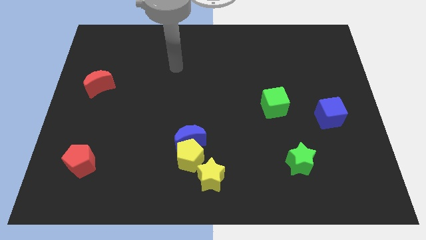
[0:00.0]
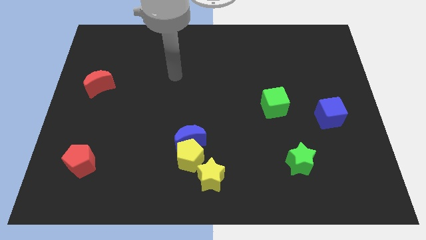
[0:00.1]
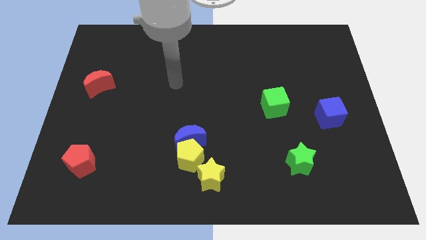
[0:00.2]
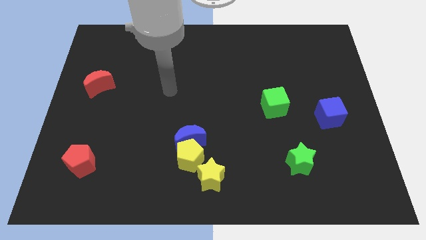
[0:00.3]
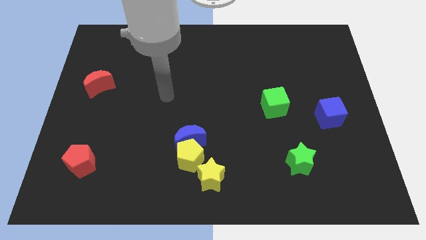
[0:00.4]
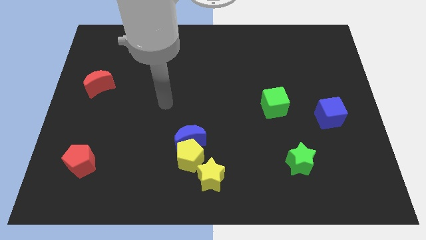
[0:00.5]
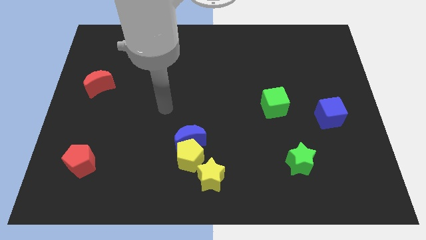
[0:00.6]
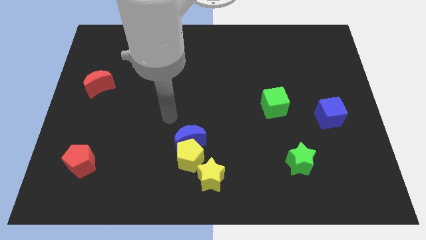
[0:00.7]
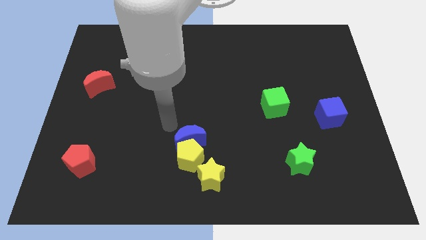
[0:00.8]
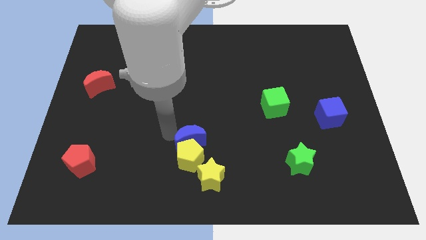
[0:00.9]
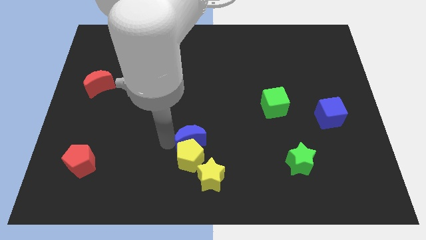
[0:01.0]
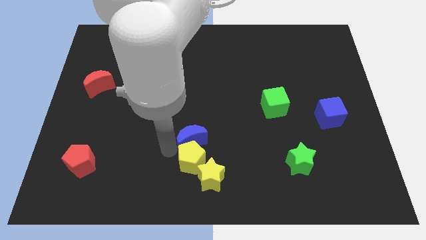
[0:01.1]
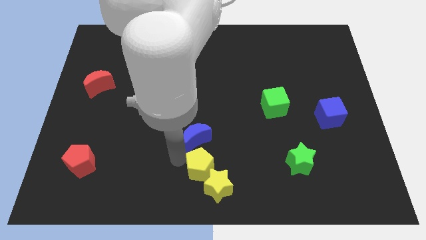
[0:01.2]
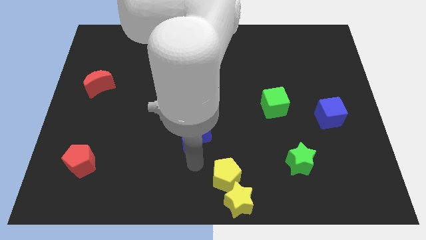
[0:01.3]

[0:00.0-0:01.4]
separate the blue moon from the yellow pentagon

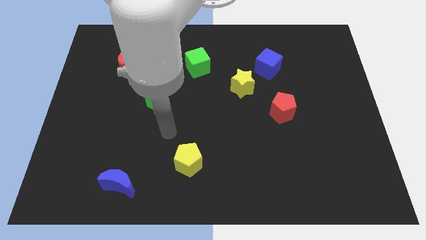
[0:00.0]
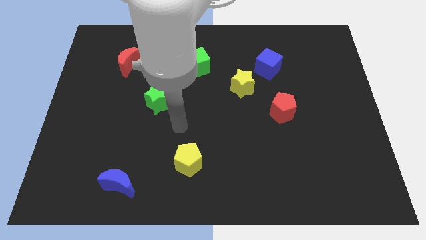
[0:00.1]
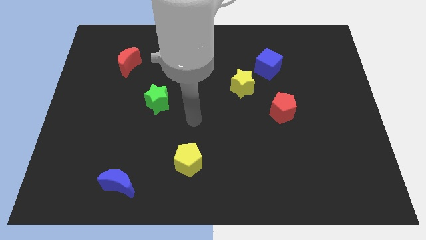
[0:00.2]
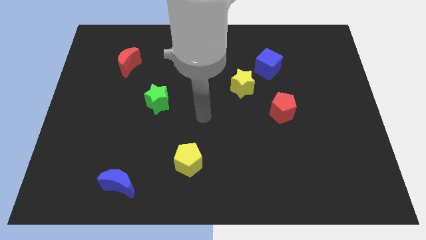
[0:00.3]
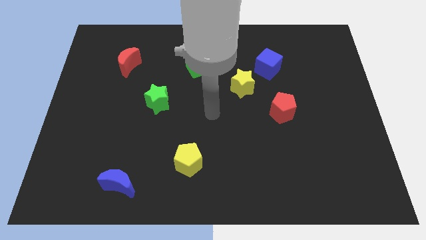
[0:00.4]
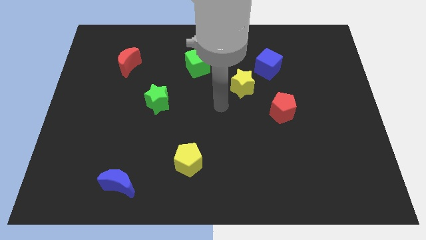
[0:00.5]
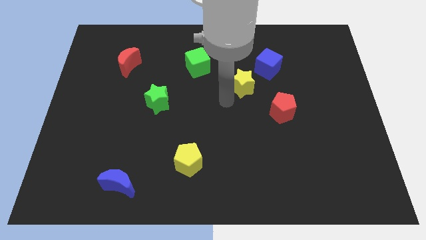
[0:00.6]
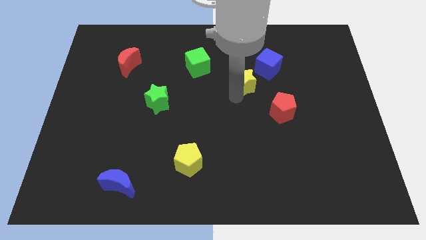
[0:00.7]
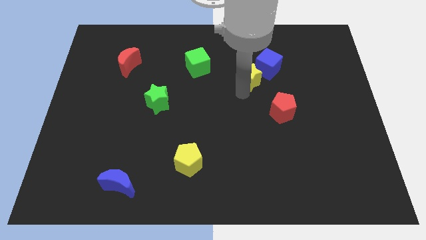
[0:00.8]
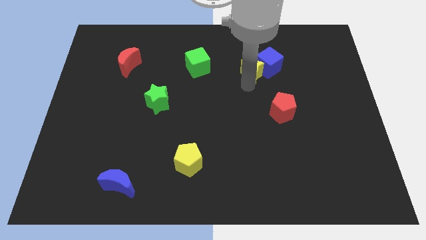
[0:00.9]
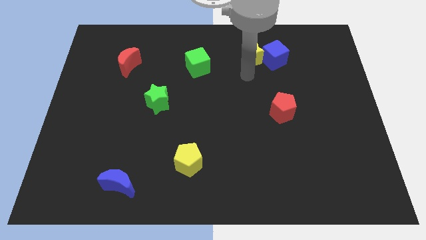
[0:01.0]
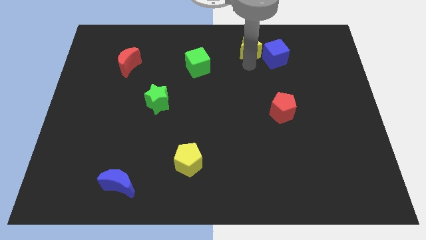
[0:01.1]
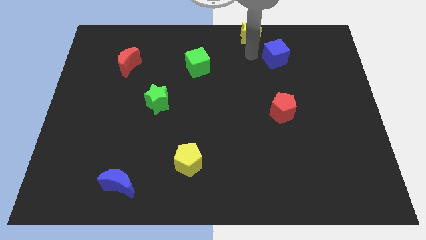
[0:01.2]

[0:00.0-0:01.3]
move the blue cube away from the yellow star

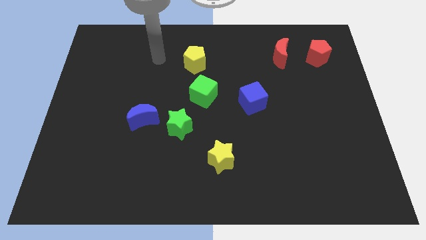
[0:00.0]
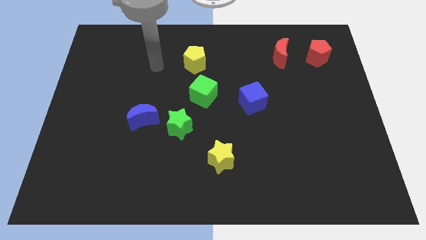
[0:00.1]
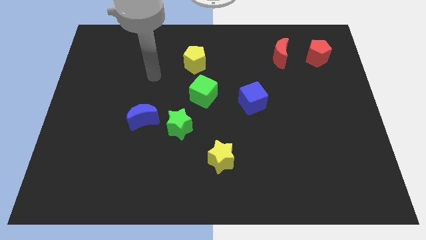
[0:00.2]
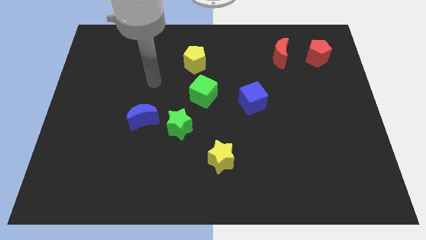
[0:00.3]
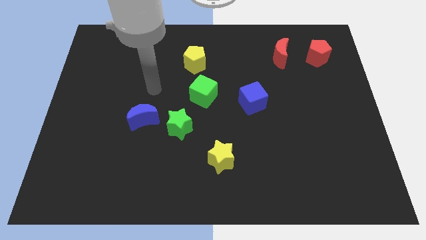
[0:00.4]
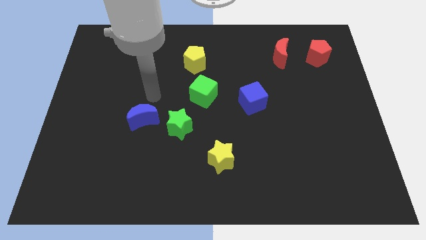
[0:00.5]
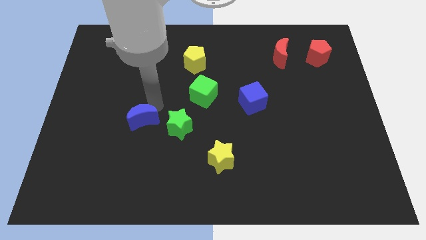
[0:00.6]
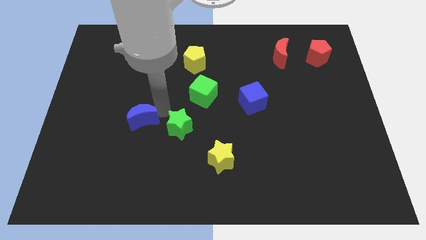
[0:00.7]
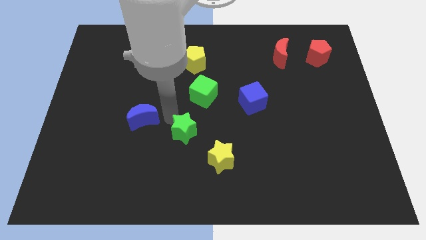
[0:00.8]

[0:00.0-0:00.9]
pull the blue moon apart from the green star

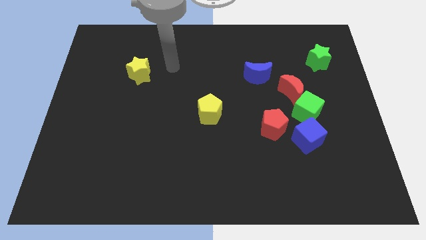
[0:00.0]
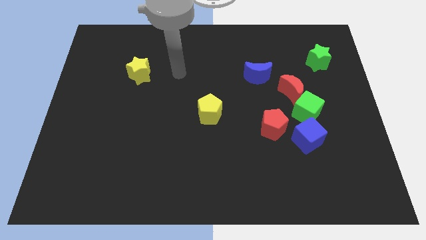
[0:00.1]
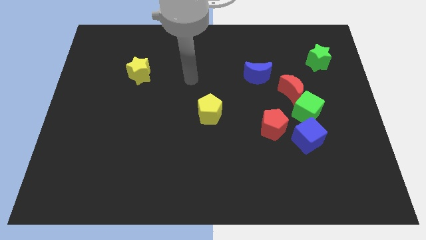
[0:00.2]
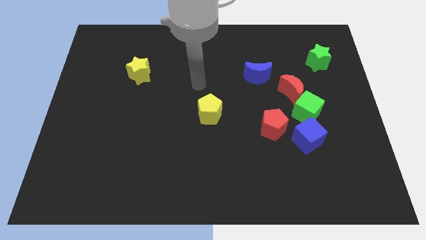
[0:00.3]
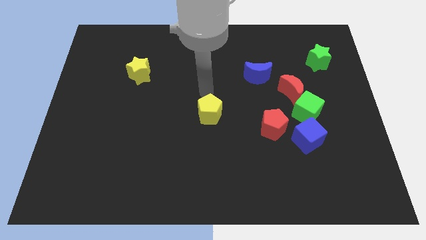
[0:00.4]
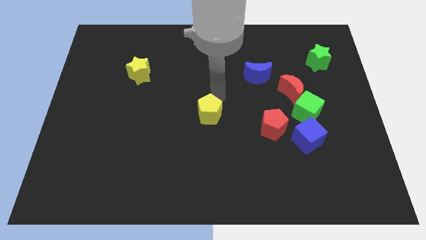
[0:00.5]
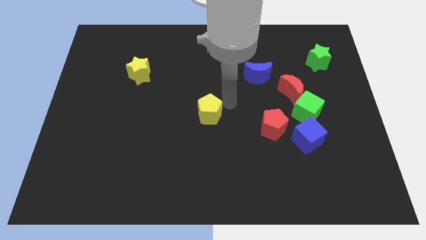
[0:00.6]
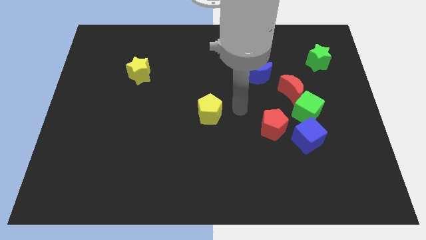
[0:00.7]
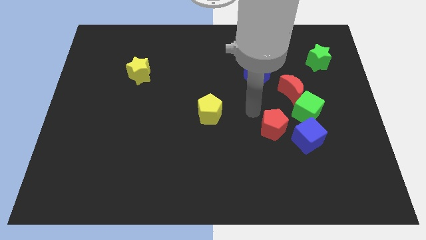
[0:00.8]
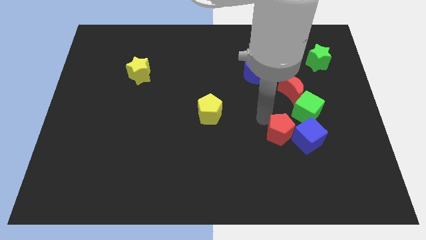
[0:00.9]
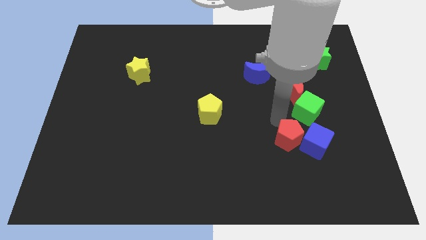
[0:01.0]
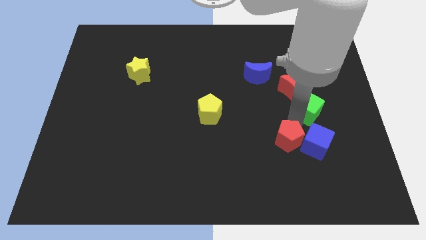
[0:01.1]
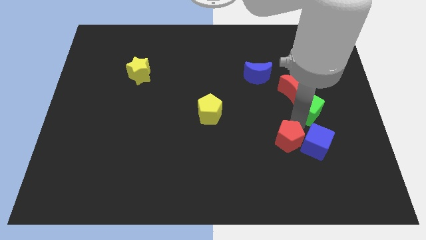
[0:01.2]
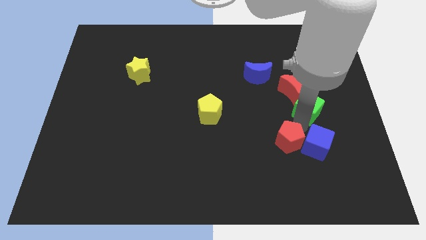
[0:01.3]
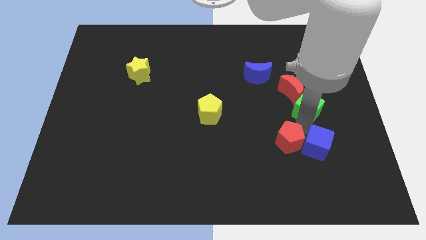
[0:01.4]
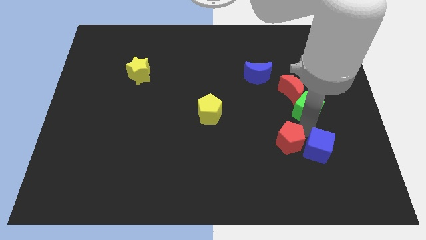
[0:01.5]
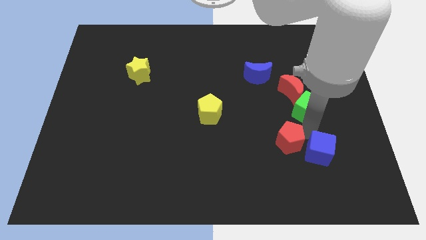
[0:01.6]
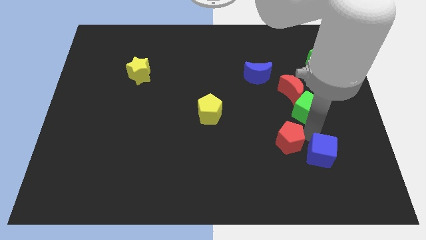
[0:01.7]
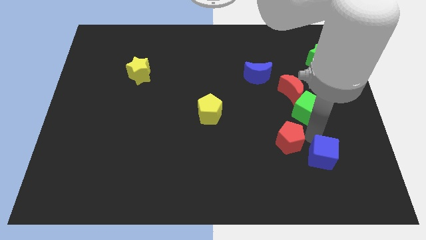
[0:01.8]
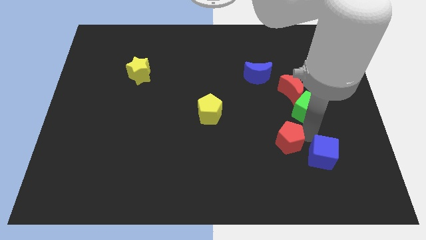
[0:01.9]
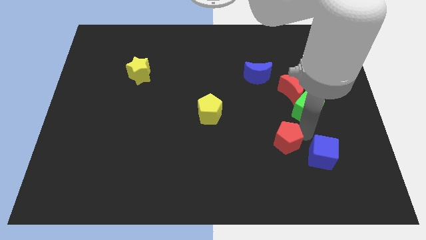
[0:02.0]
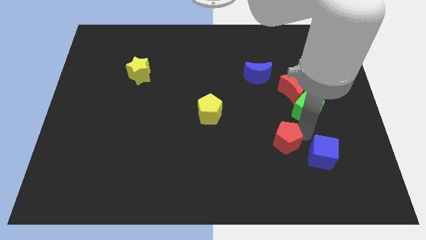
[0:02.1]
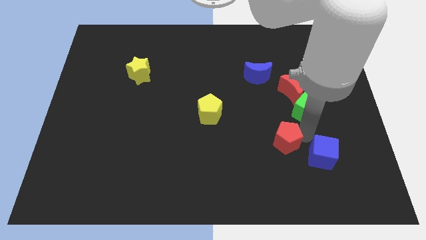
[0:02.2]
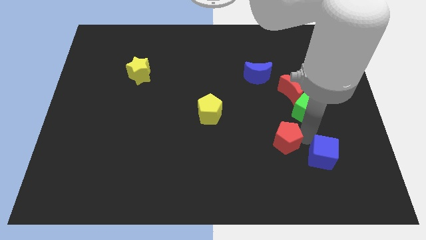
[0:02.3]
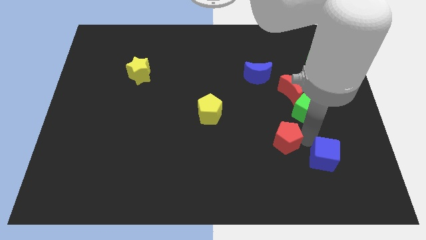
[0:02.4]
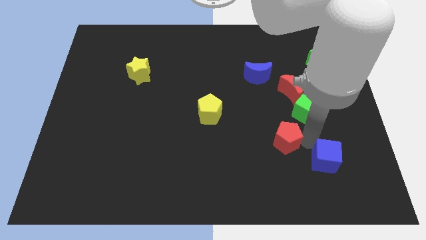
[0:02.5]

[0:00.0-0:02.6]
pull the blue cube apart from the green cube and red pentagon

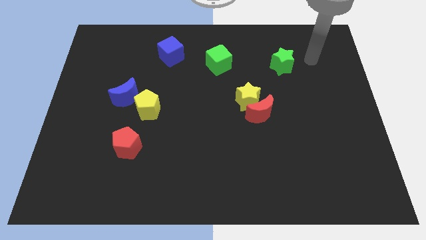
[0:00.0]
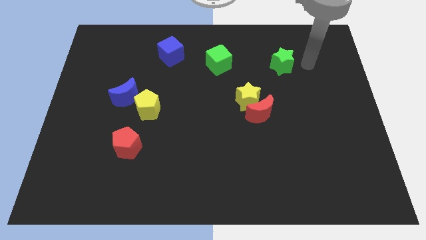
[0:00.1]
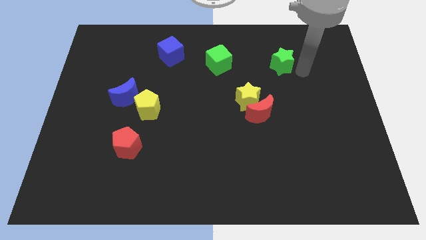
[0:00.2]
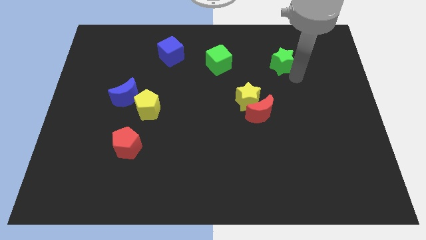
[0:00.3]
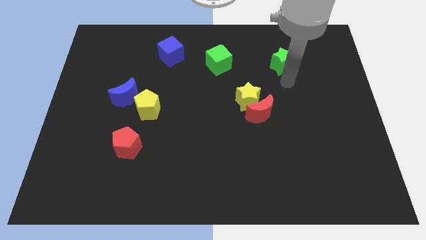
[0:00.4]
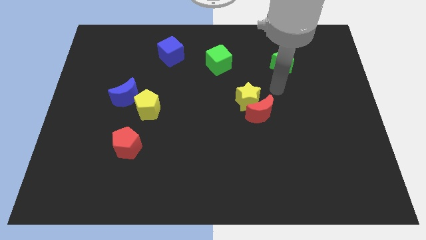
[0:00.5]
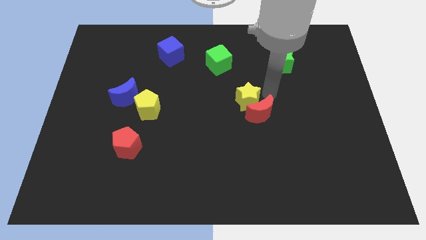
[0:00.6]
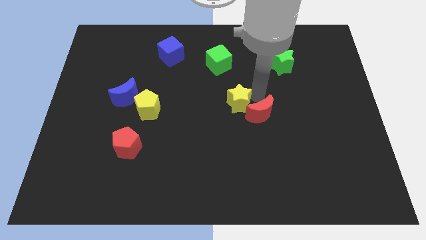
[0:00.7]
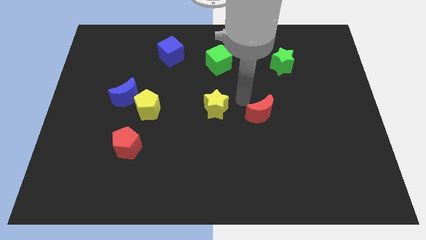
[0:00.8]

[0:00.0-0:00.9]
pull the red moon apart from the yellow star

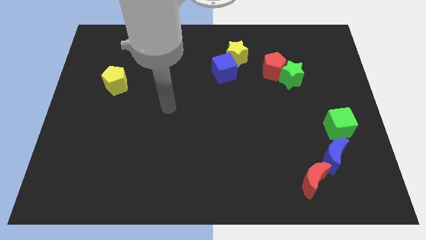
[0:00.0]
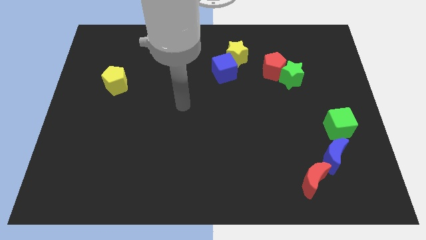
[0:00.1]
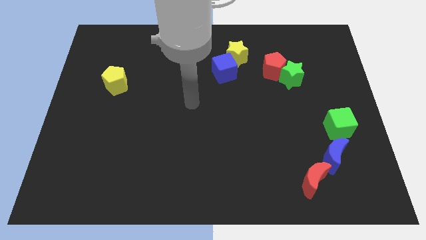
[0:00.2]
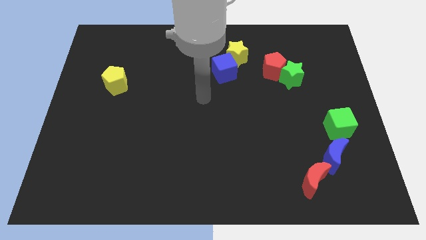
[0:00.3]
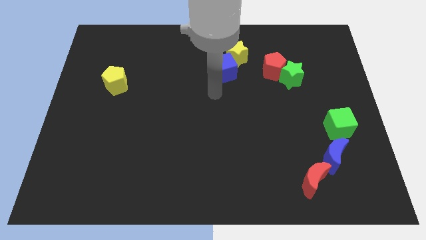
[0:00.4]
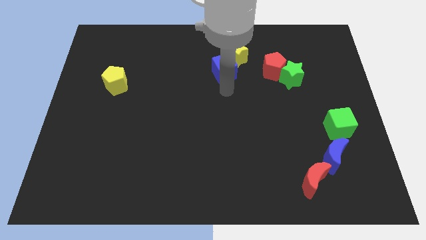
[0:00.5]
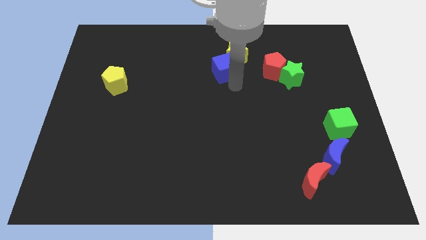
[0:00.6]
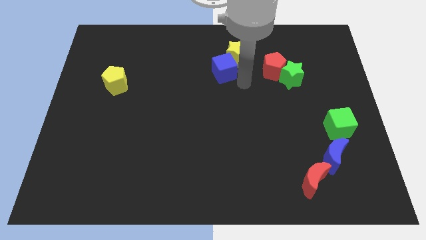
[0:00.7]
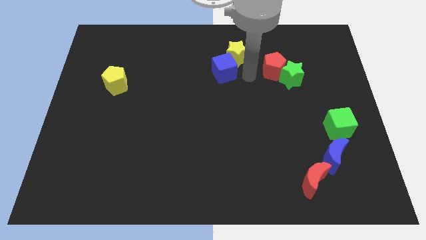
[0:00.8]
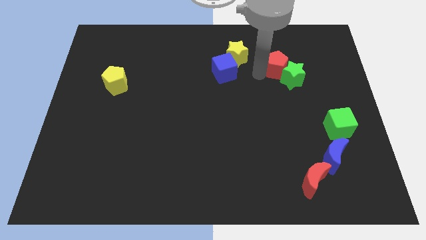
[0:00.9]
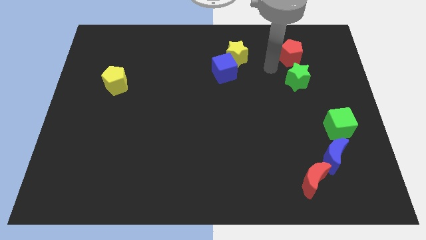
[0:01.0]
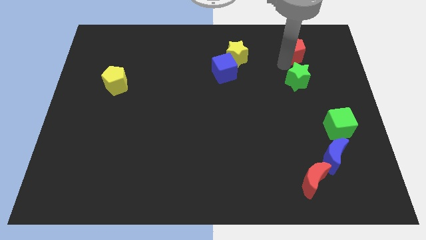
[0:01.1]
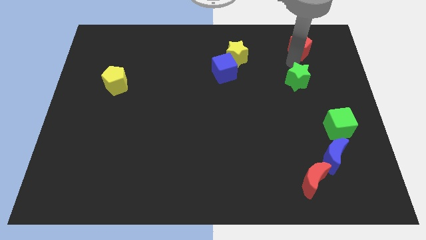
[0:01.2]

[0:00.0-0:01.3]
separate the green star from the red pentagon

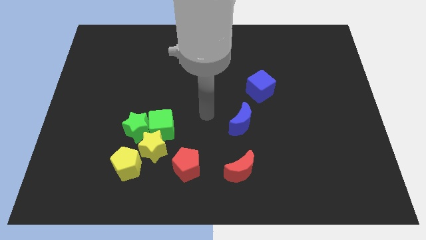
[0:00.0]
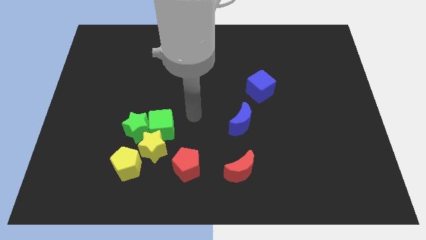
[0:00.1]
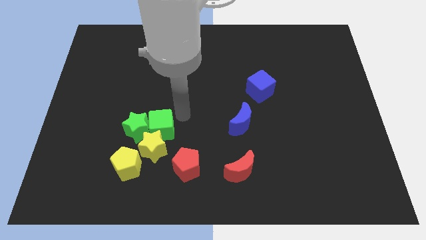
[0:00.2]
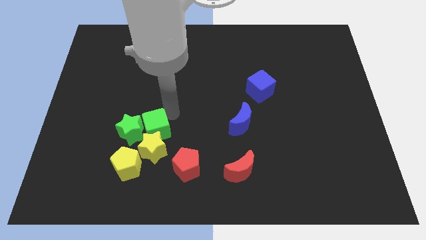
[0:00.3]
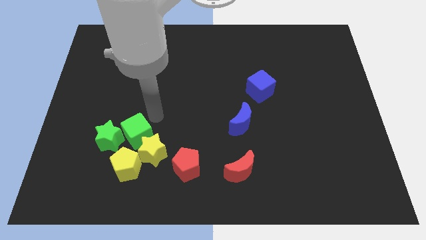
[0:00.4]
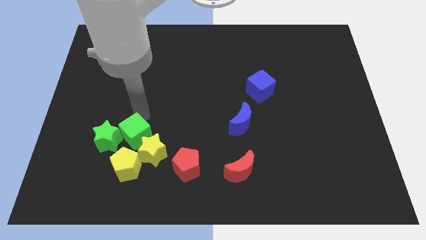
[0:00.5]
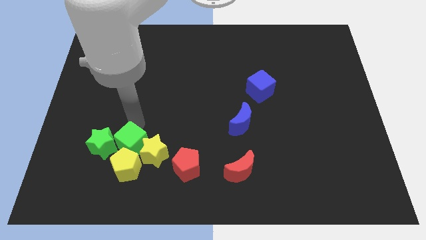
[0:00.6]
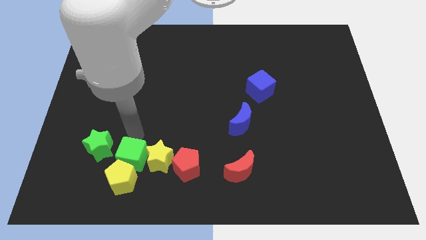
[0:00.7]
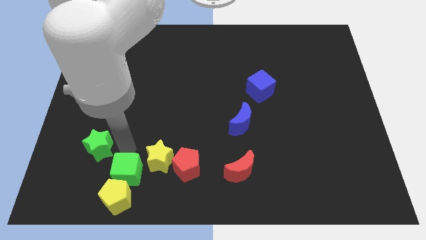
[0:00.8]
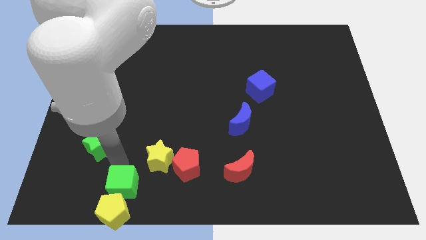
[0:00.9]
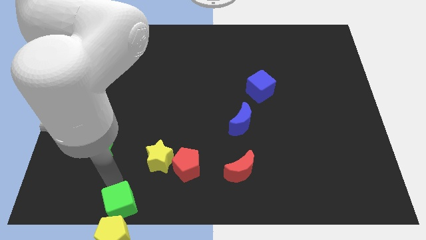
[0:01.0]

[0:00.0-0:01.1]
pull the green cube apart from the green star and yellow star
